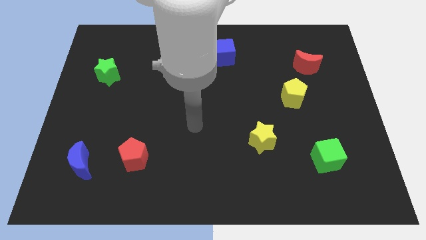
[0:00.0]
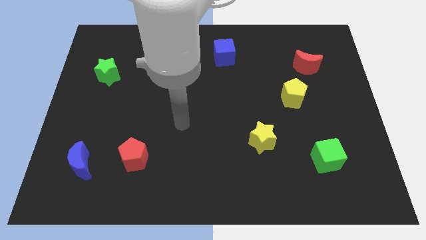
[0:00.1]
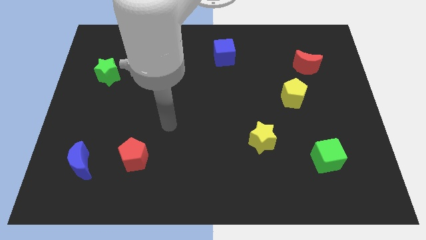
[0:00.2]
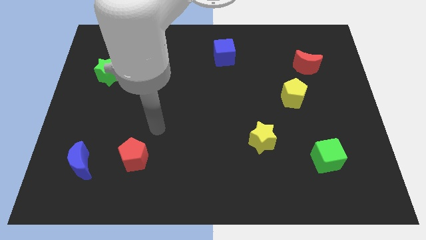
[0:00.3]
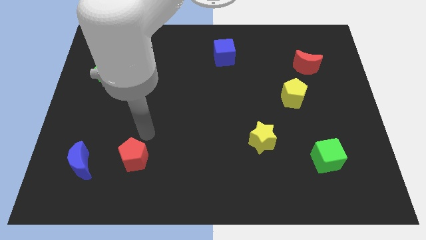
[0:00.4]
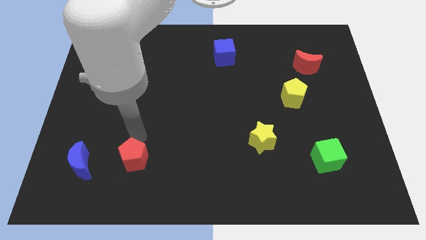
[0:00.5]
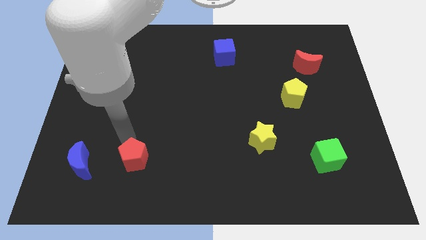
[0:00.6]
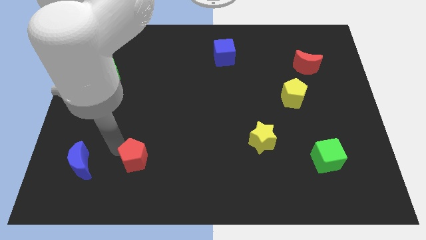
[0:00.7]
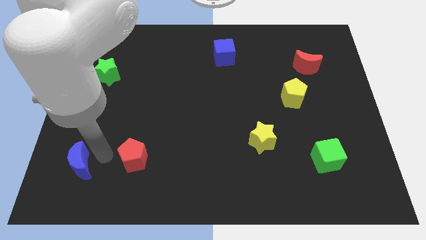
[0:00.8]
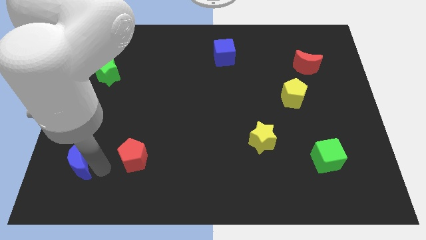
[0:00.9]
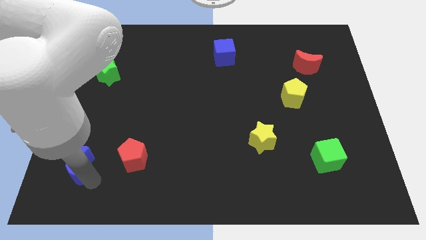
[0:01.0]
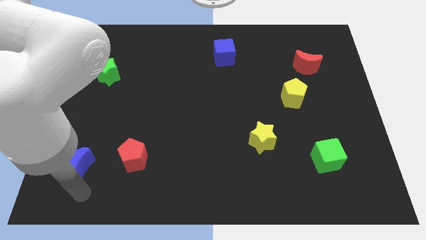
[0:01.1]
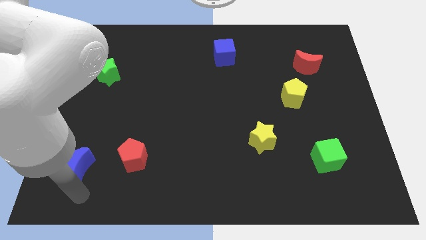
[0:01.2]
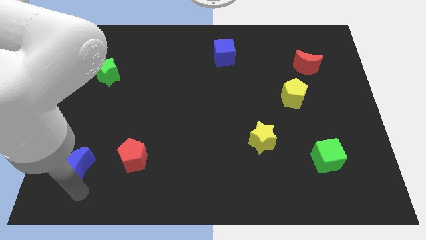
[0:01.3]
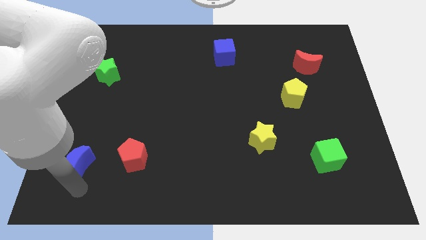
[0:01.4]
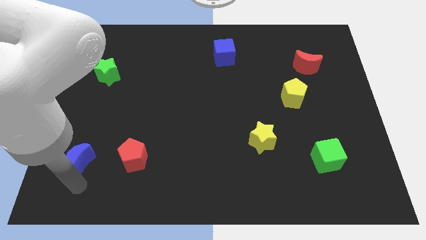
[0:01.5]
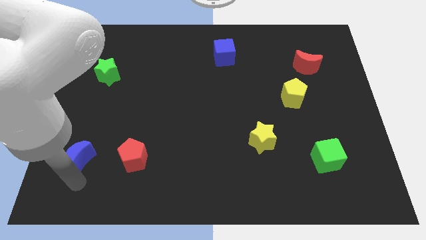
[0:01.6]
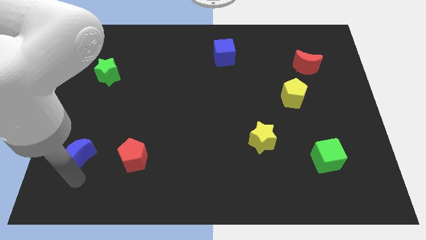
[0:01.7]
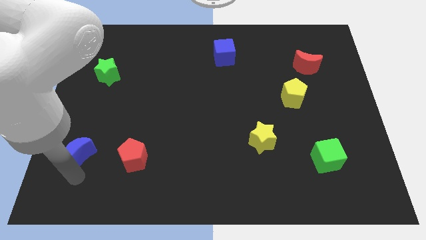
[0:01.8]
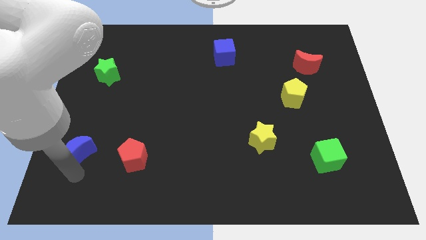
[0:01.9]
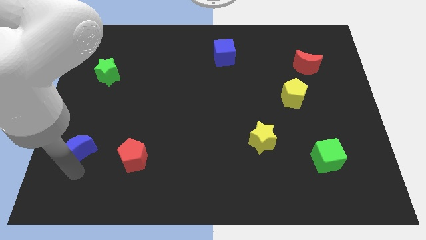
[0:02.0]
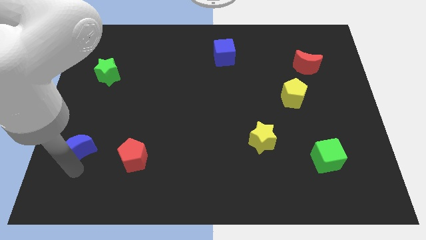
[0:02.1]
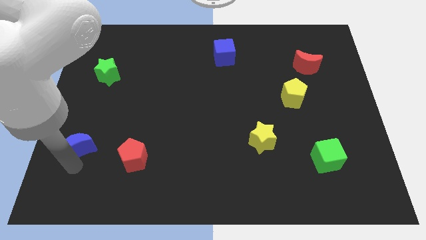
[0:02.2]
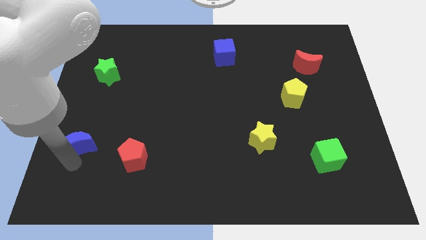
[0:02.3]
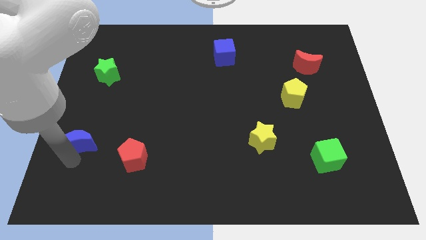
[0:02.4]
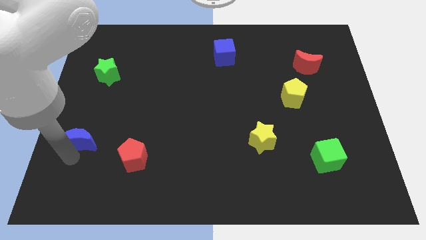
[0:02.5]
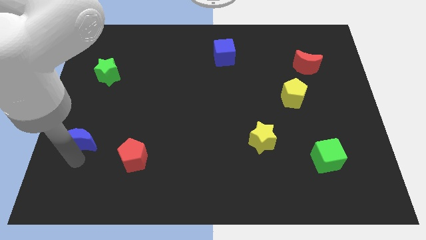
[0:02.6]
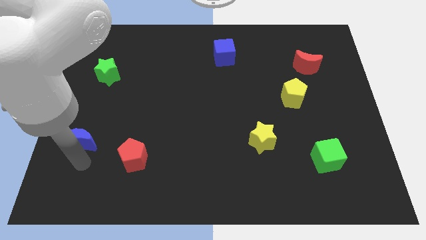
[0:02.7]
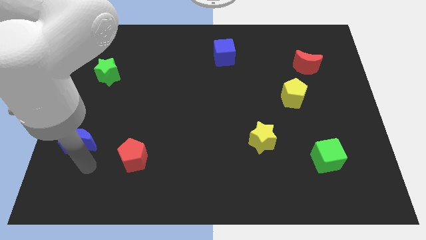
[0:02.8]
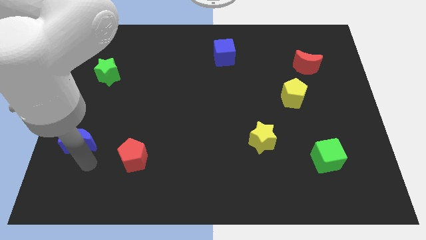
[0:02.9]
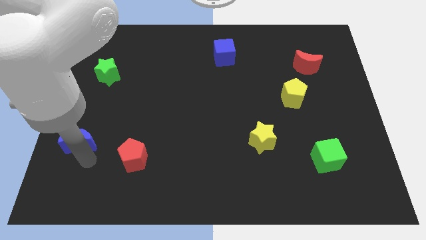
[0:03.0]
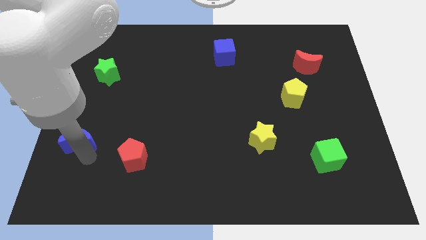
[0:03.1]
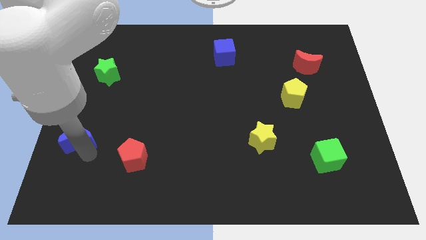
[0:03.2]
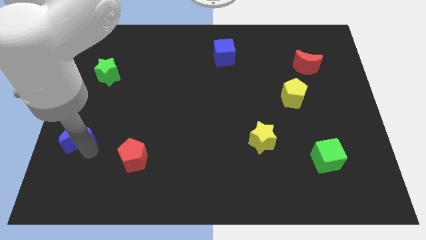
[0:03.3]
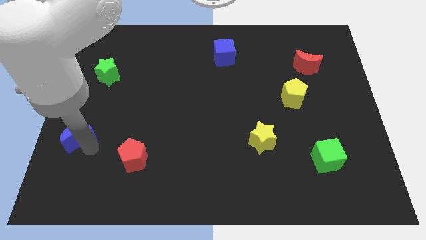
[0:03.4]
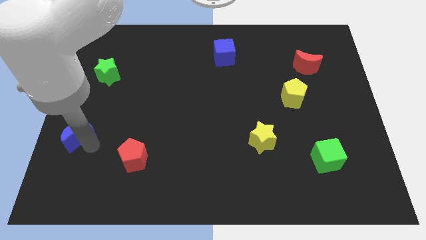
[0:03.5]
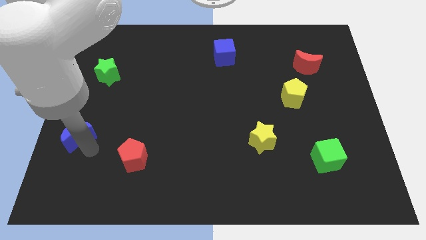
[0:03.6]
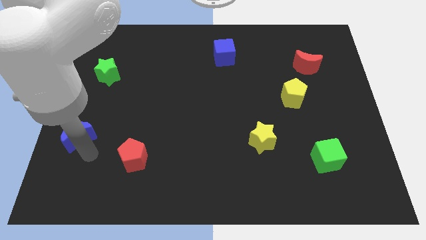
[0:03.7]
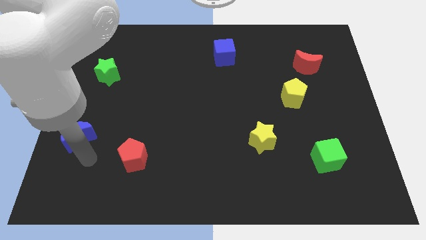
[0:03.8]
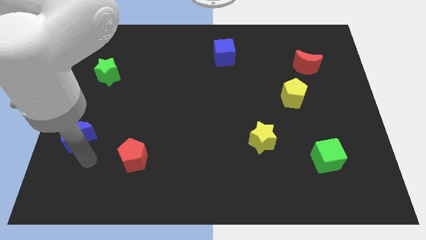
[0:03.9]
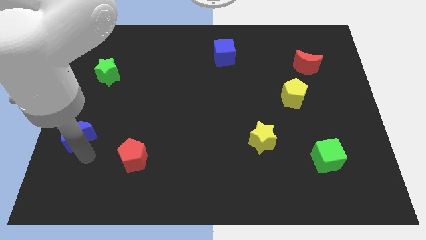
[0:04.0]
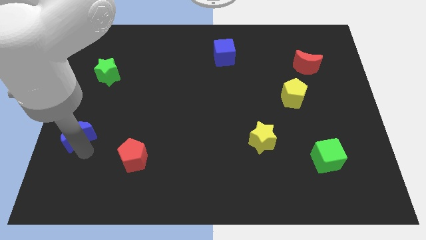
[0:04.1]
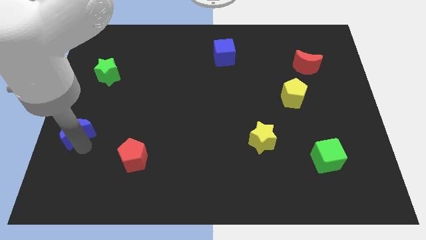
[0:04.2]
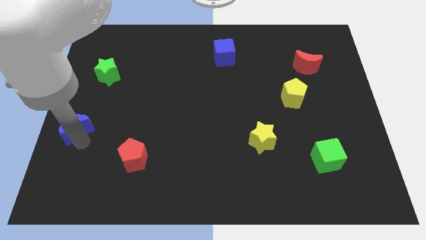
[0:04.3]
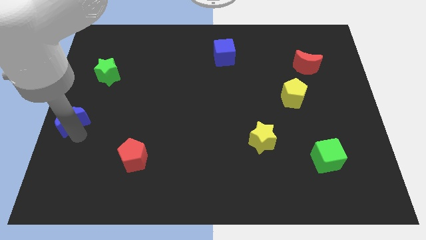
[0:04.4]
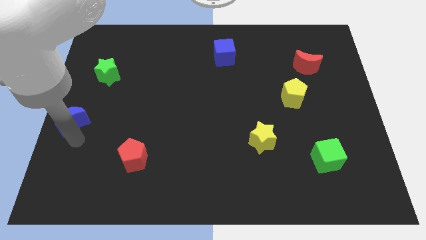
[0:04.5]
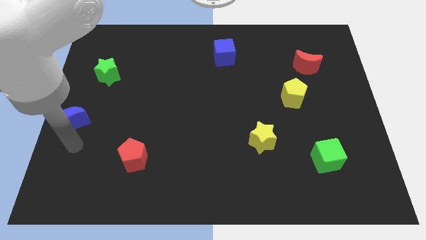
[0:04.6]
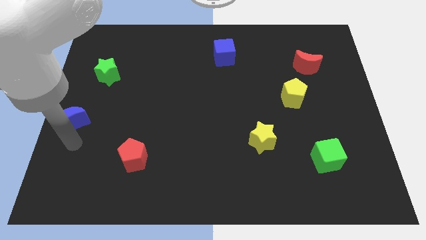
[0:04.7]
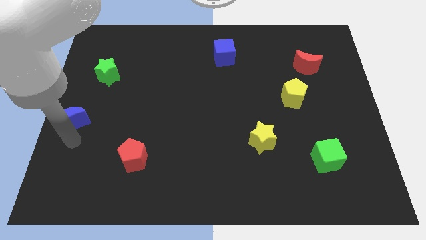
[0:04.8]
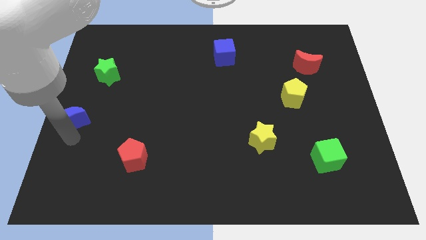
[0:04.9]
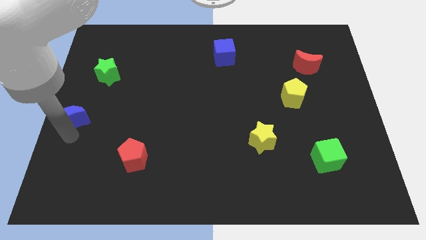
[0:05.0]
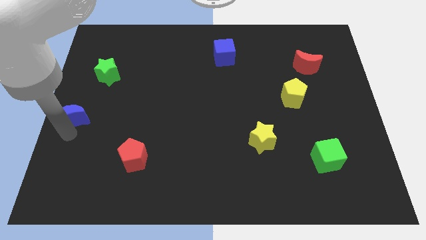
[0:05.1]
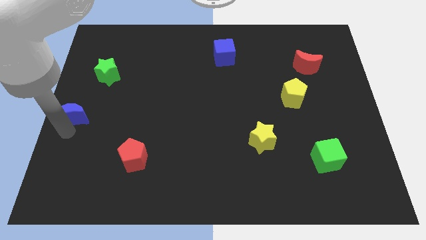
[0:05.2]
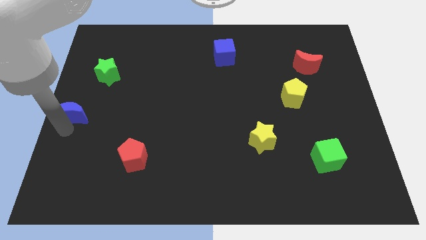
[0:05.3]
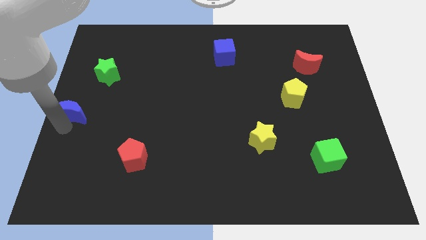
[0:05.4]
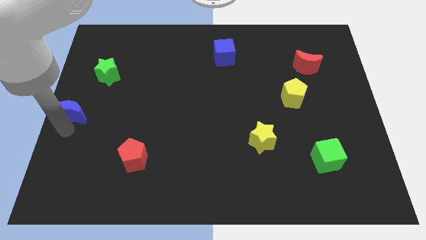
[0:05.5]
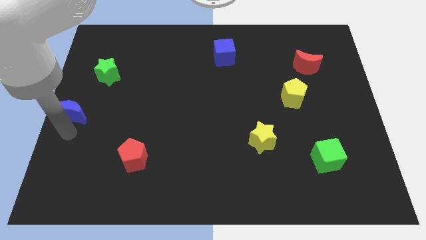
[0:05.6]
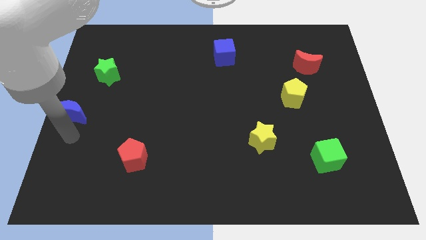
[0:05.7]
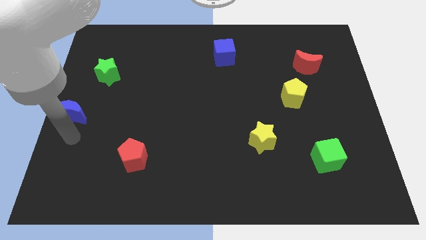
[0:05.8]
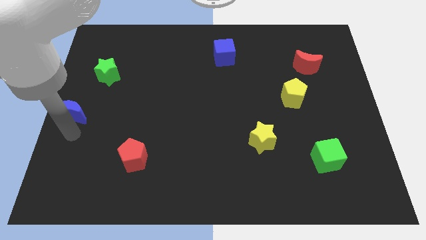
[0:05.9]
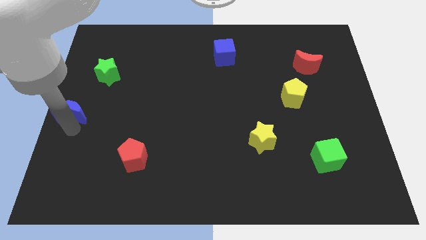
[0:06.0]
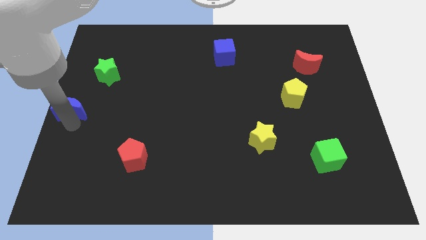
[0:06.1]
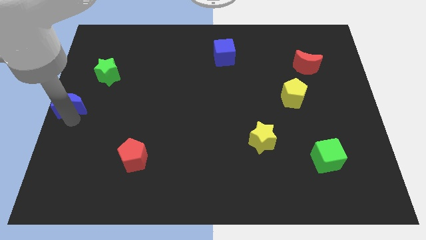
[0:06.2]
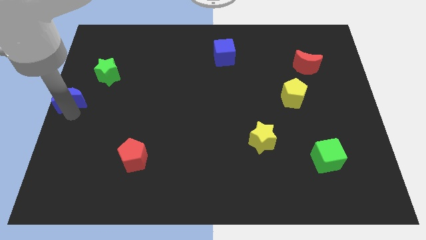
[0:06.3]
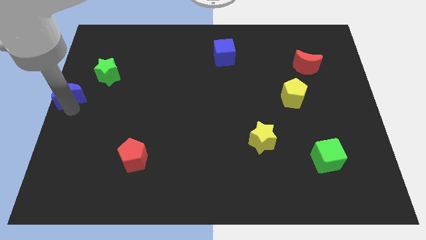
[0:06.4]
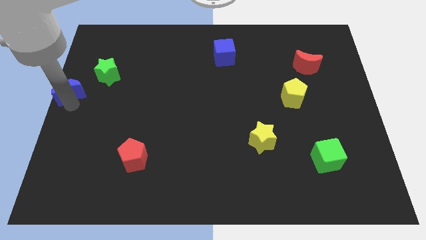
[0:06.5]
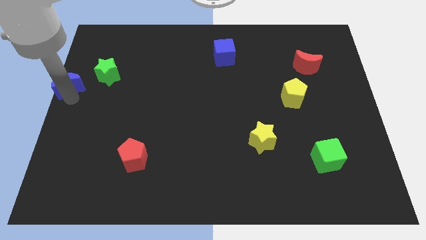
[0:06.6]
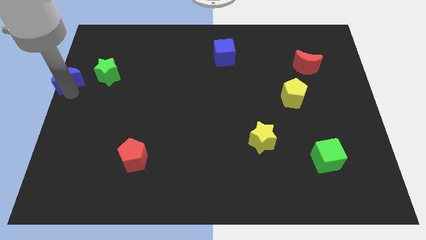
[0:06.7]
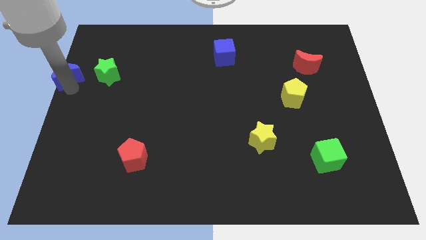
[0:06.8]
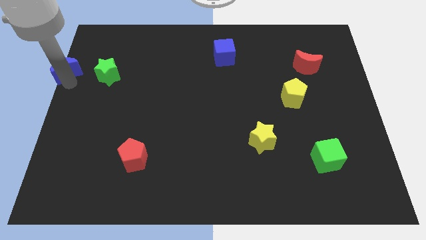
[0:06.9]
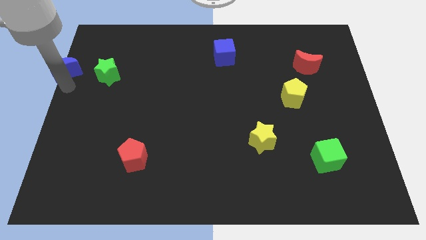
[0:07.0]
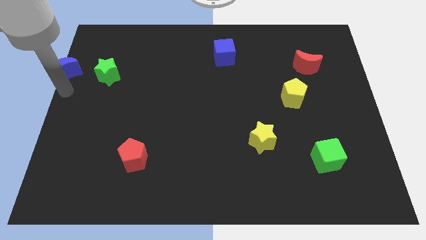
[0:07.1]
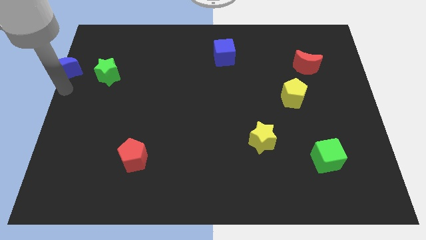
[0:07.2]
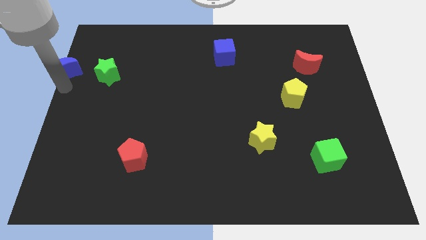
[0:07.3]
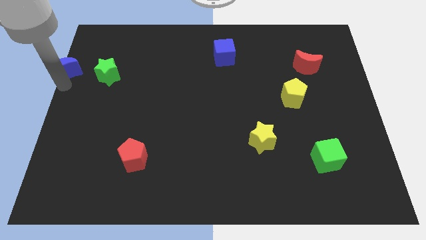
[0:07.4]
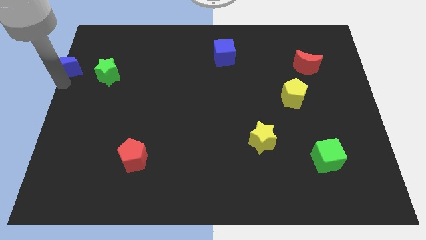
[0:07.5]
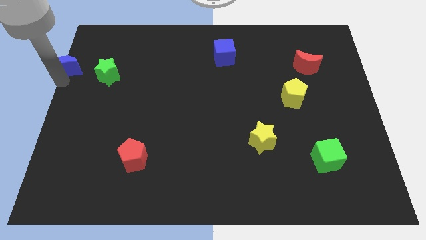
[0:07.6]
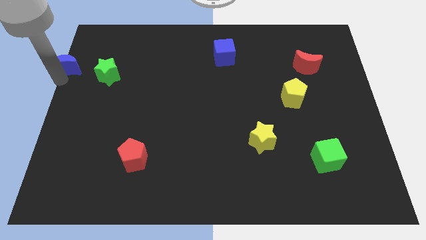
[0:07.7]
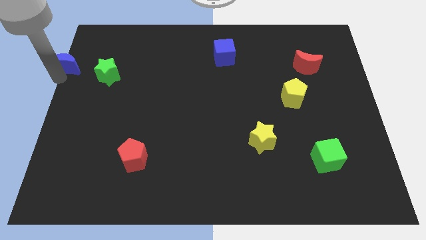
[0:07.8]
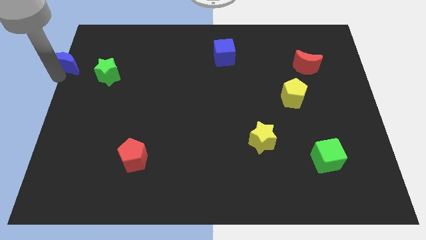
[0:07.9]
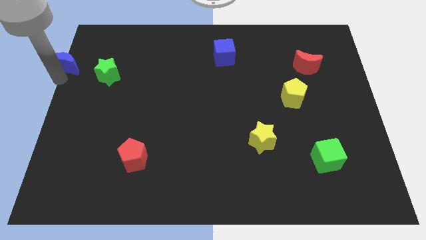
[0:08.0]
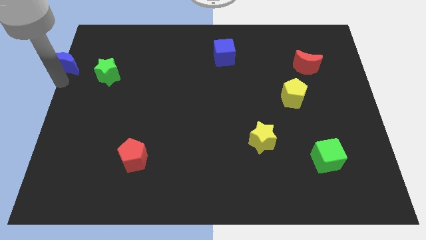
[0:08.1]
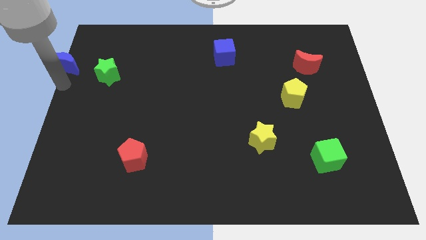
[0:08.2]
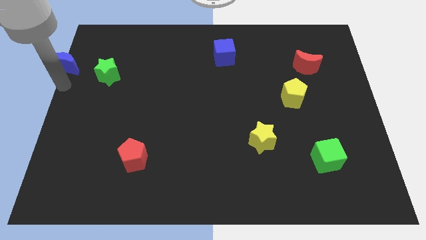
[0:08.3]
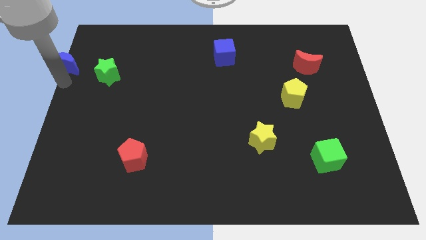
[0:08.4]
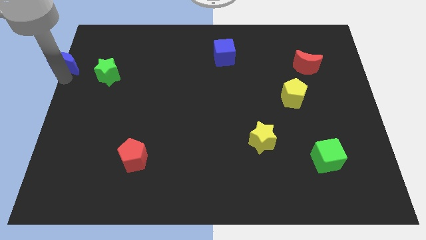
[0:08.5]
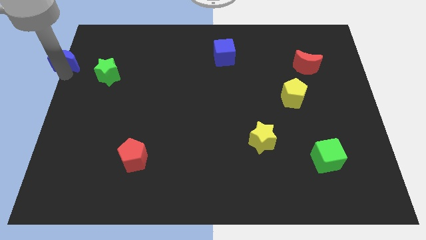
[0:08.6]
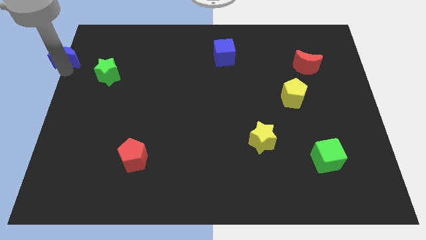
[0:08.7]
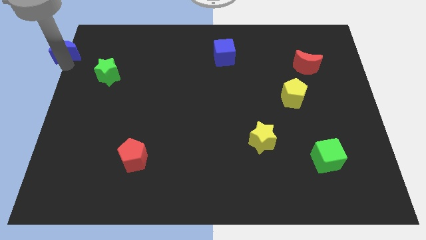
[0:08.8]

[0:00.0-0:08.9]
put the blue moon to the upper left corner
